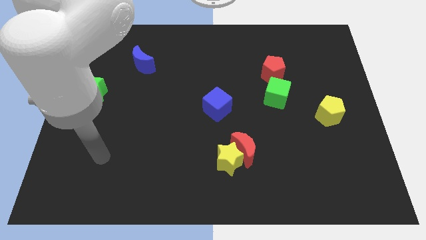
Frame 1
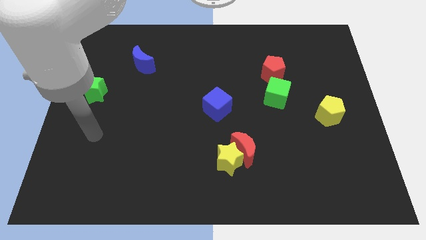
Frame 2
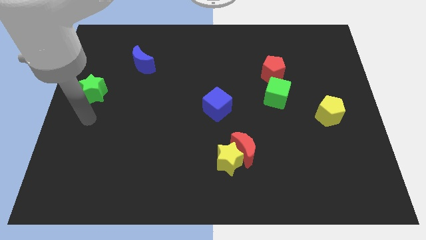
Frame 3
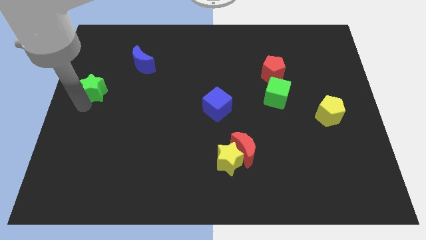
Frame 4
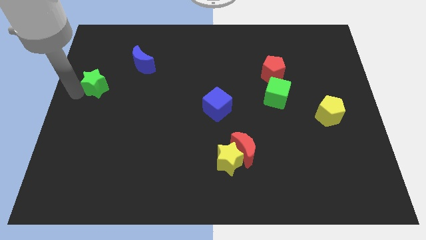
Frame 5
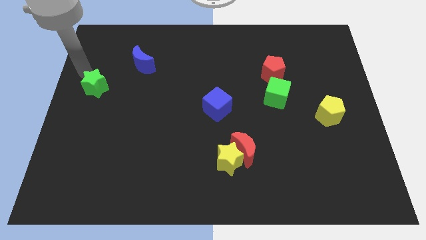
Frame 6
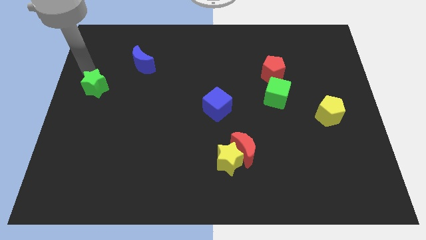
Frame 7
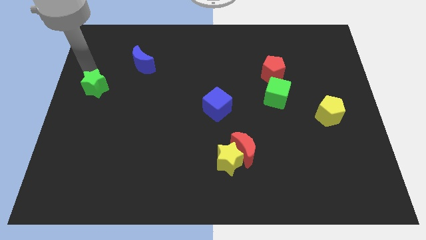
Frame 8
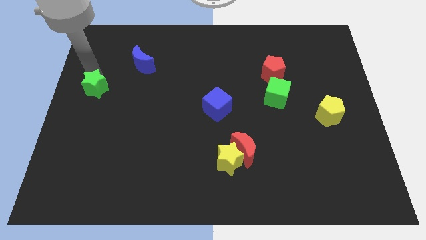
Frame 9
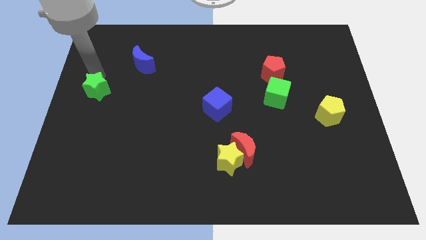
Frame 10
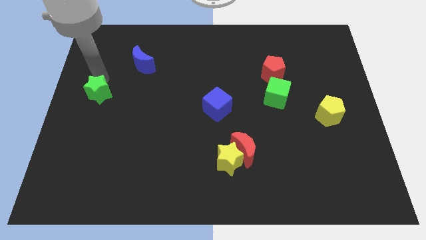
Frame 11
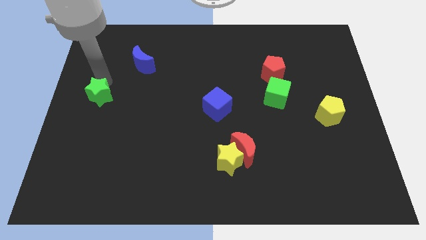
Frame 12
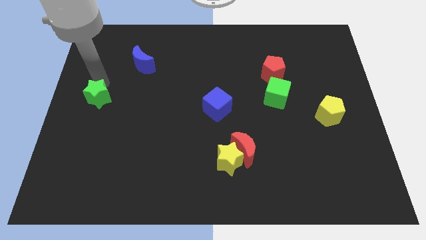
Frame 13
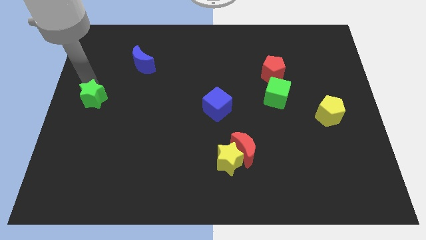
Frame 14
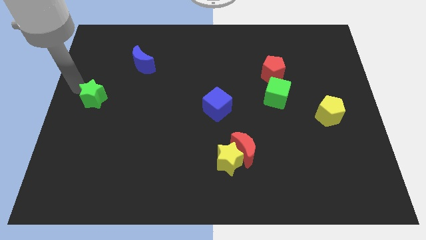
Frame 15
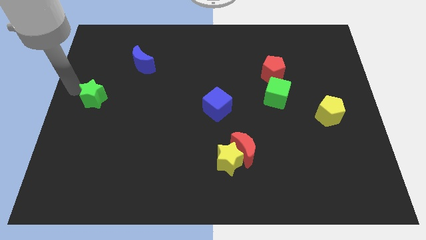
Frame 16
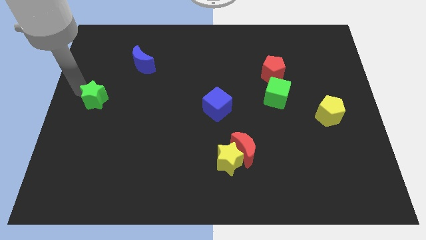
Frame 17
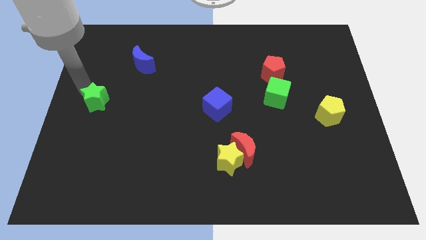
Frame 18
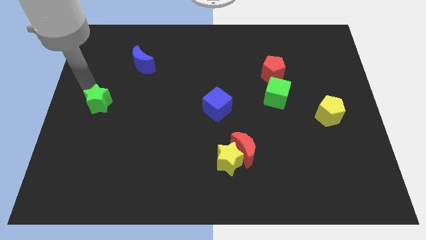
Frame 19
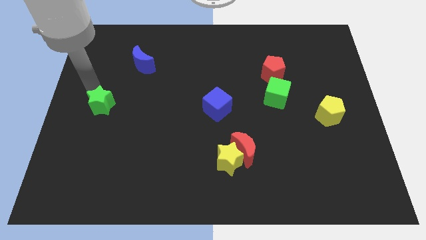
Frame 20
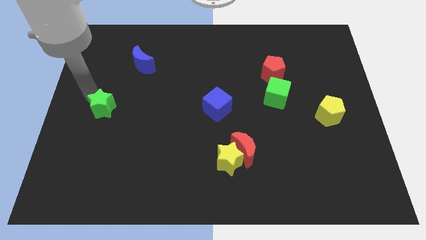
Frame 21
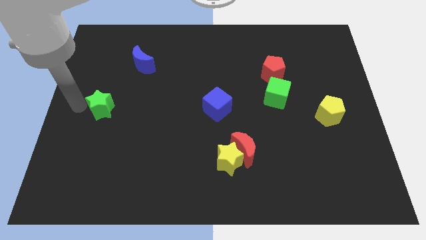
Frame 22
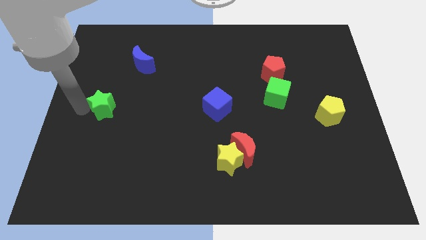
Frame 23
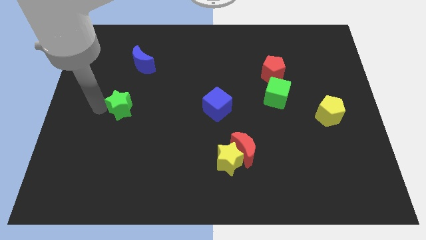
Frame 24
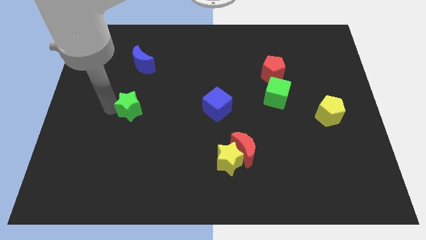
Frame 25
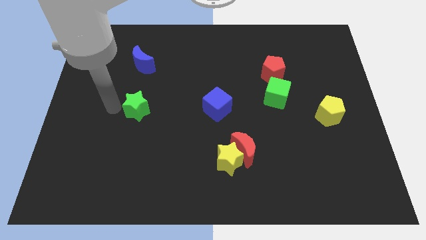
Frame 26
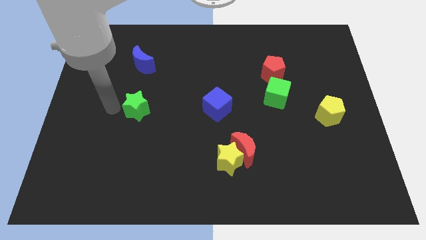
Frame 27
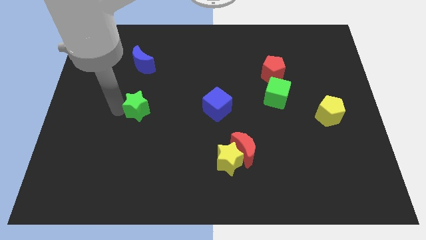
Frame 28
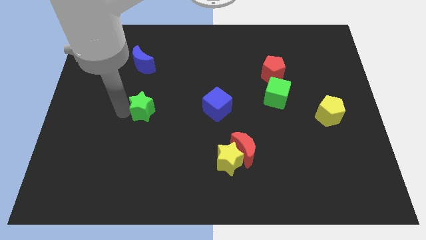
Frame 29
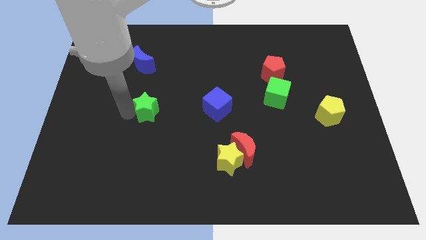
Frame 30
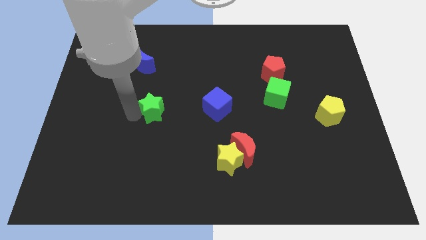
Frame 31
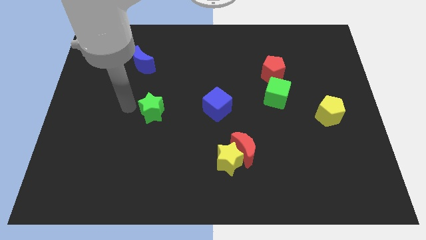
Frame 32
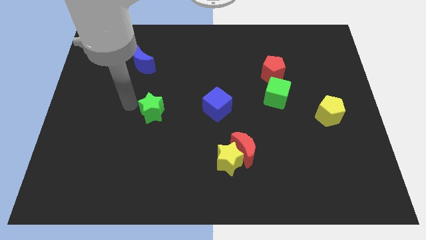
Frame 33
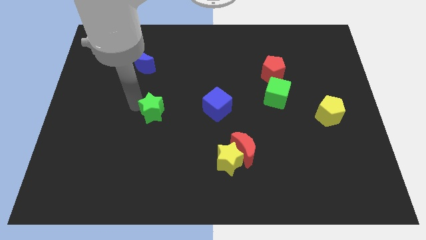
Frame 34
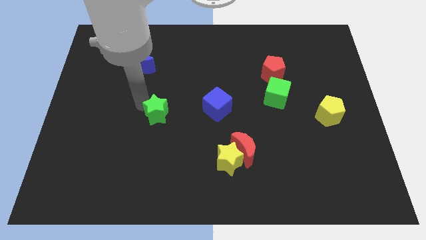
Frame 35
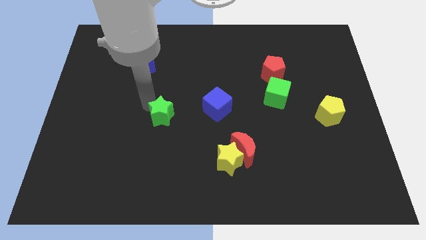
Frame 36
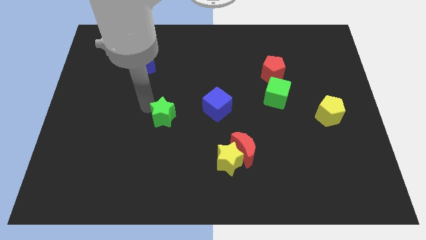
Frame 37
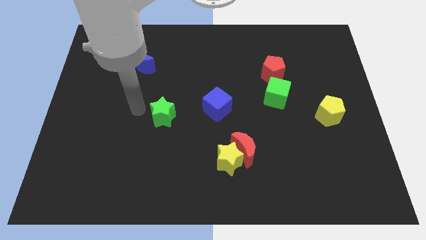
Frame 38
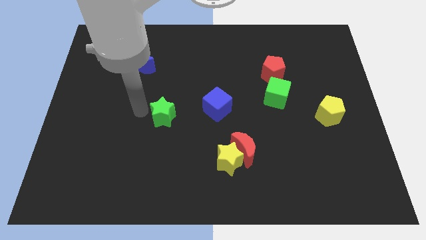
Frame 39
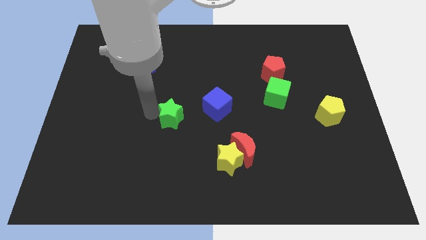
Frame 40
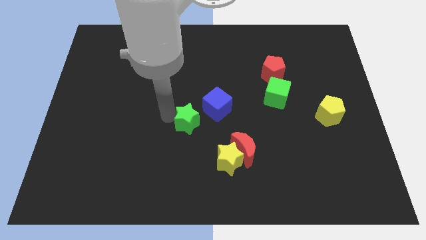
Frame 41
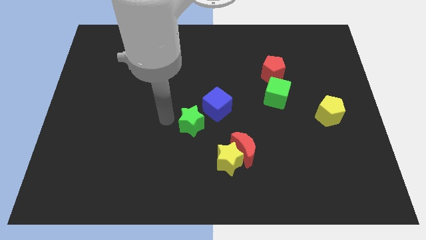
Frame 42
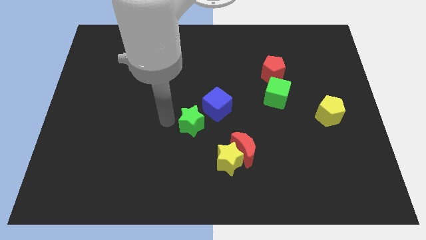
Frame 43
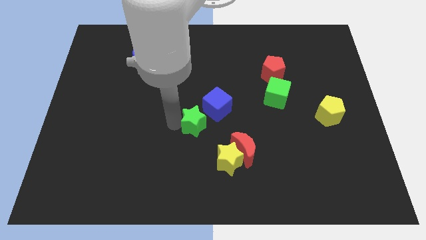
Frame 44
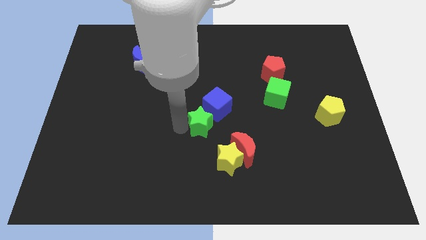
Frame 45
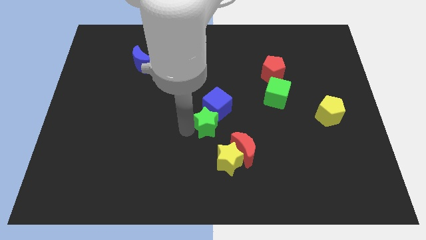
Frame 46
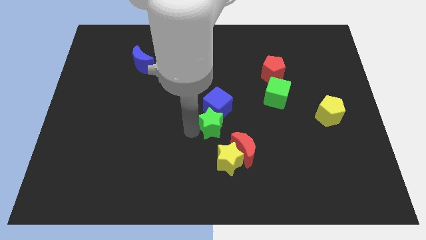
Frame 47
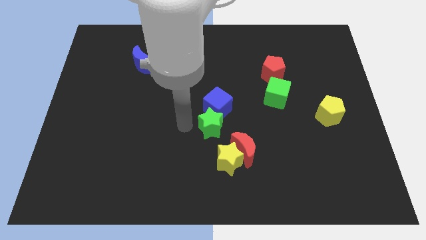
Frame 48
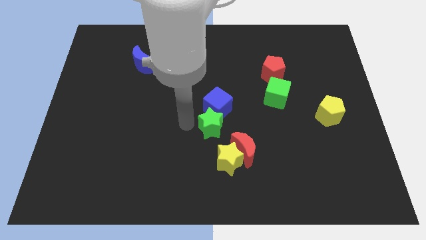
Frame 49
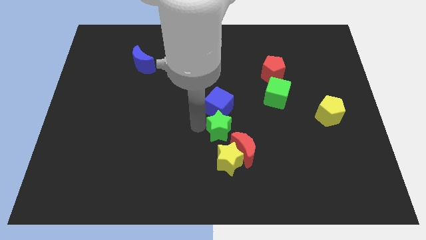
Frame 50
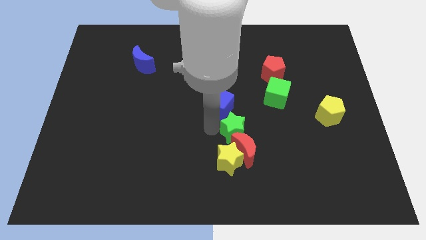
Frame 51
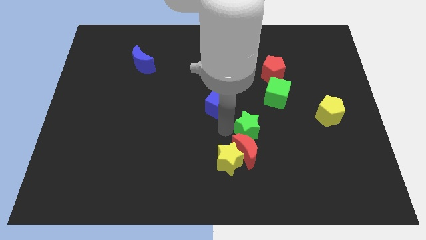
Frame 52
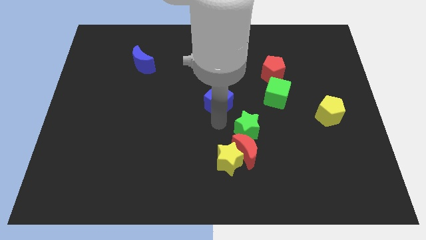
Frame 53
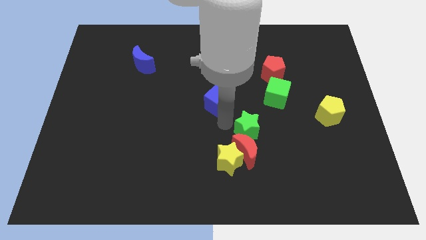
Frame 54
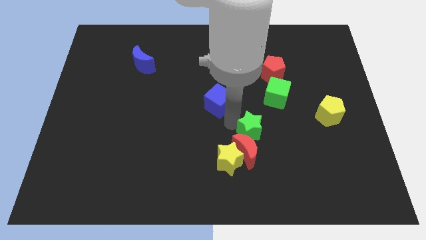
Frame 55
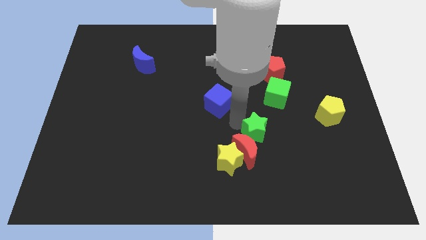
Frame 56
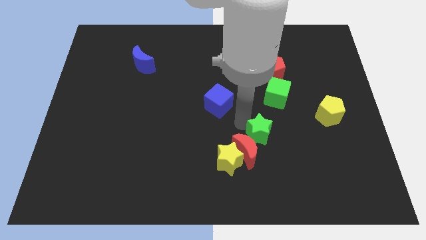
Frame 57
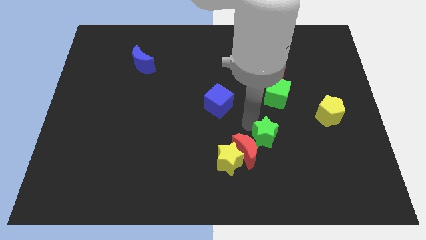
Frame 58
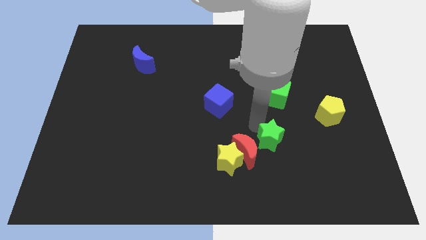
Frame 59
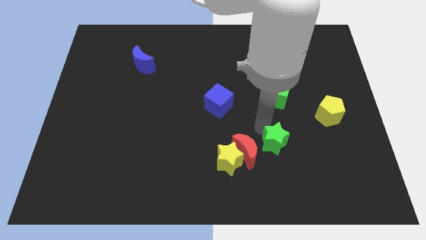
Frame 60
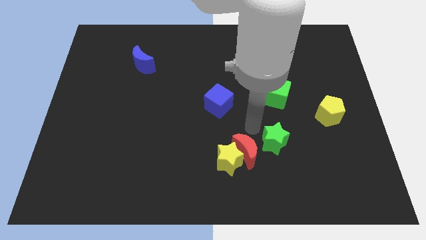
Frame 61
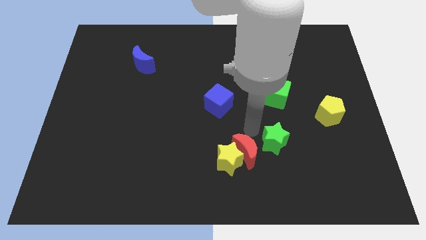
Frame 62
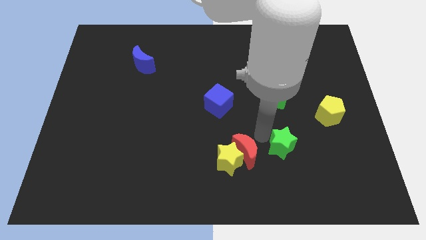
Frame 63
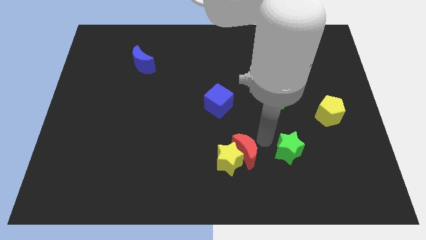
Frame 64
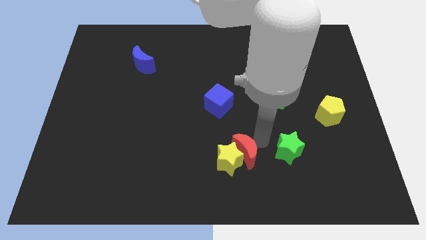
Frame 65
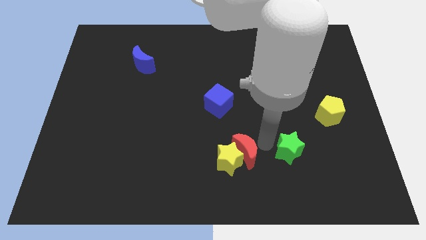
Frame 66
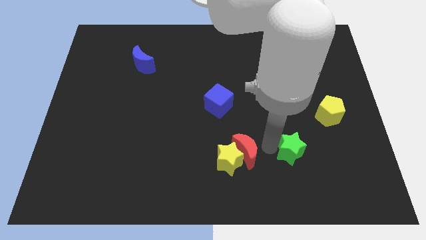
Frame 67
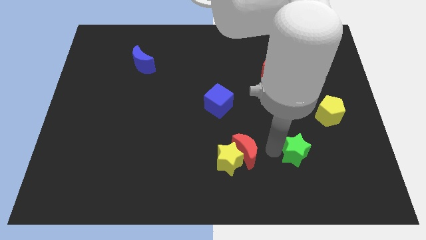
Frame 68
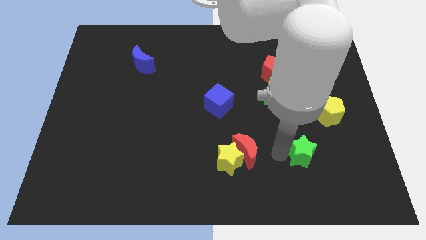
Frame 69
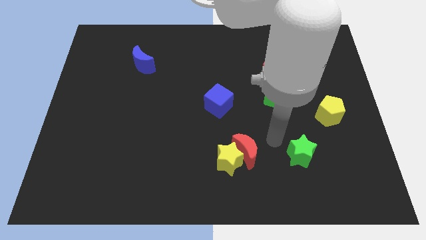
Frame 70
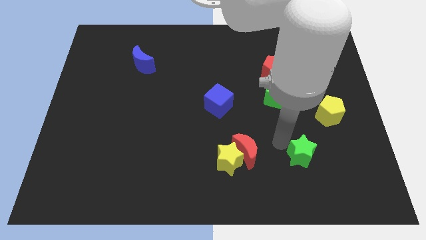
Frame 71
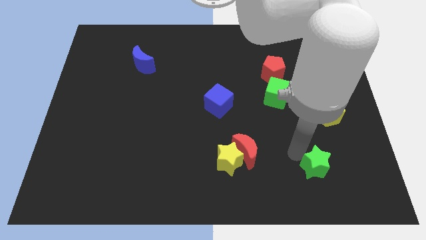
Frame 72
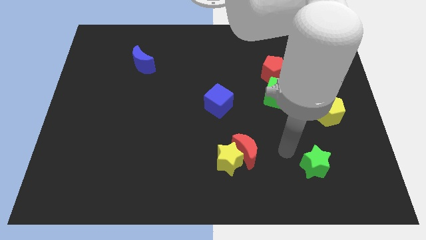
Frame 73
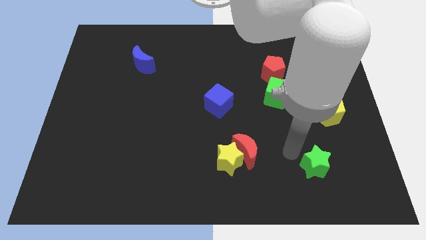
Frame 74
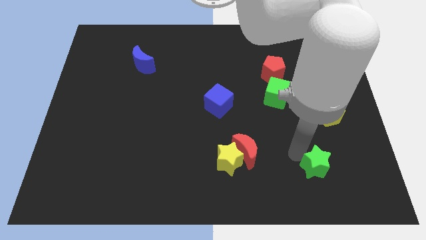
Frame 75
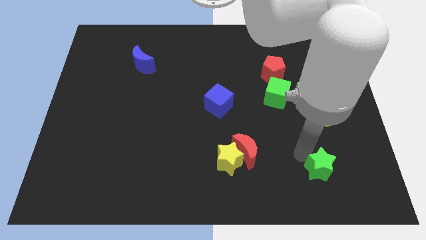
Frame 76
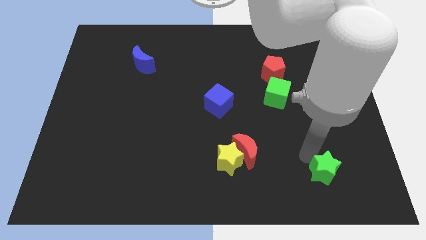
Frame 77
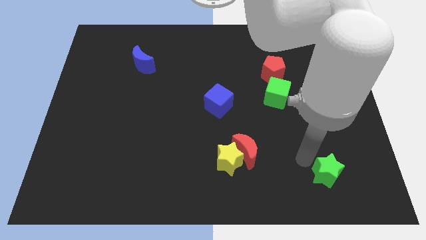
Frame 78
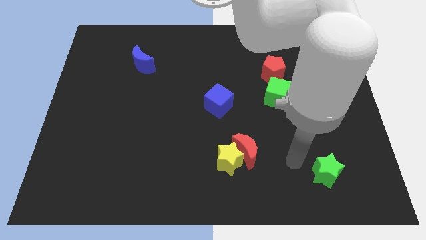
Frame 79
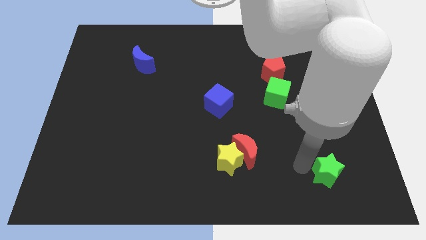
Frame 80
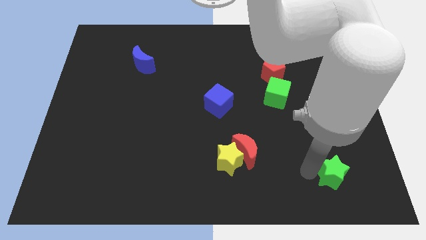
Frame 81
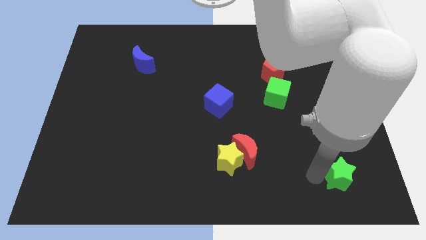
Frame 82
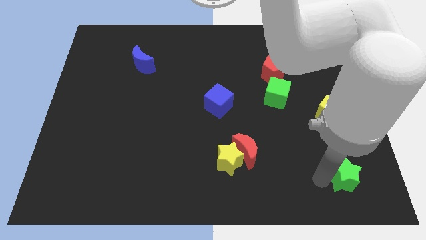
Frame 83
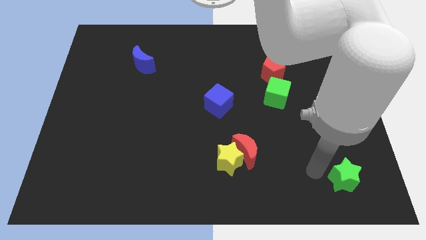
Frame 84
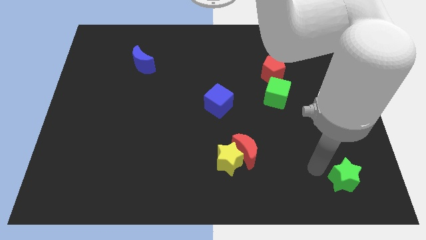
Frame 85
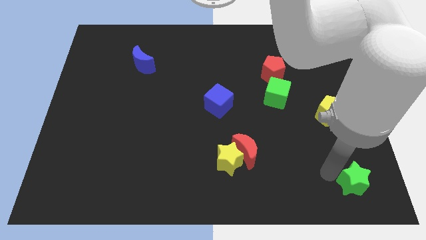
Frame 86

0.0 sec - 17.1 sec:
slide the green star to the lower right corner
